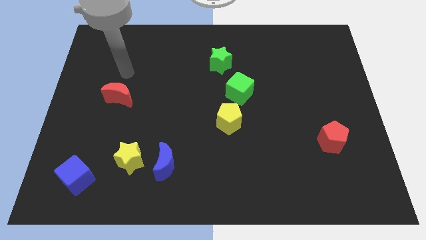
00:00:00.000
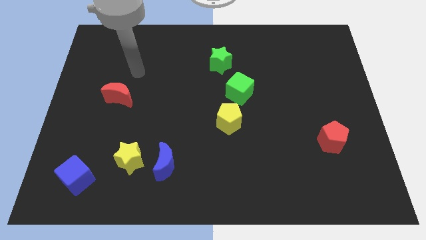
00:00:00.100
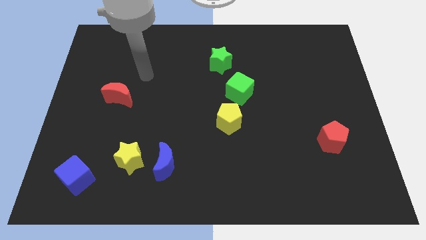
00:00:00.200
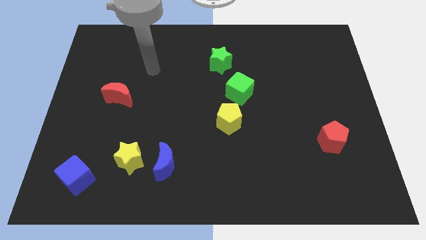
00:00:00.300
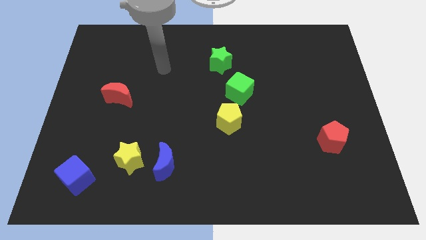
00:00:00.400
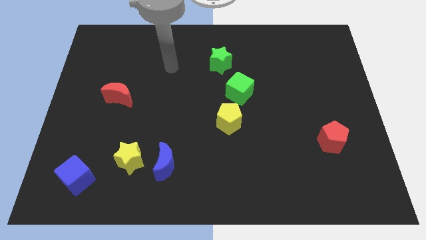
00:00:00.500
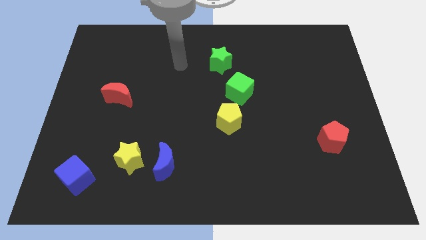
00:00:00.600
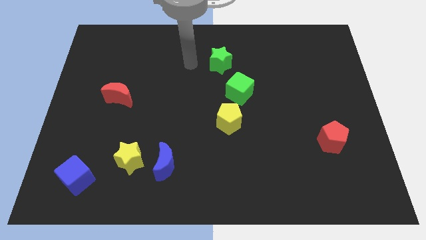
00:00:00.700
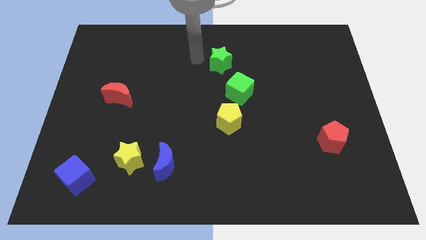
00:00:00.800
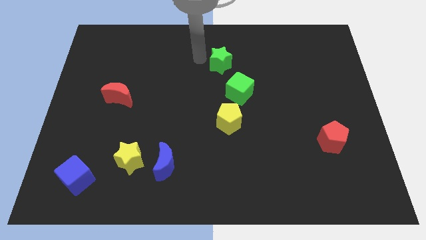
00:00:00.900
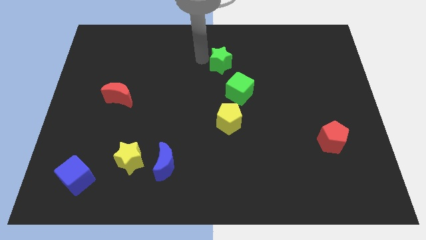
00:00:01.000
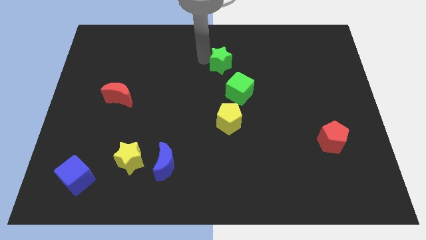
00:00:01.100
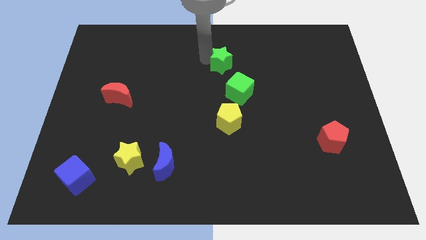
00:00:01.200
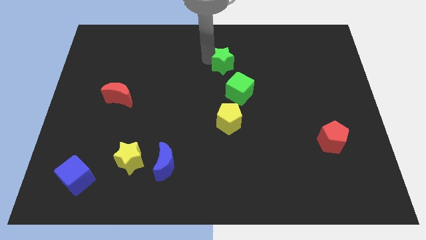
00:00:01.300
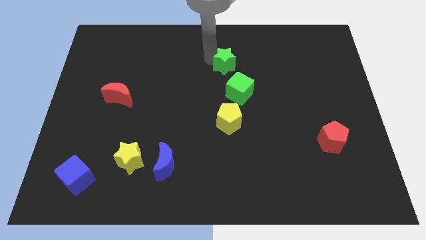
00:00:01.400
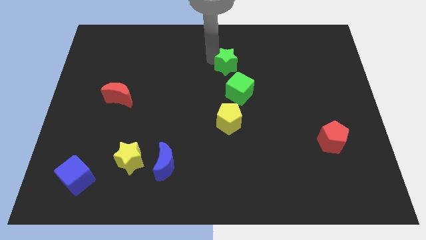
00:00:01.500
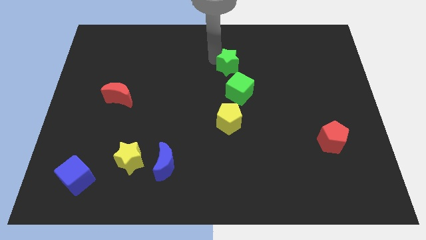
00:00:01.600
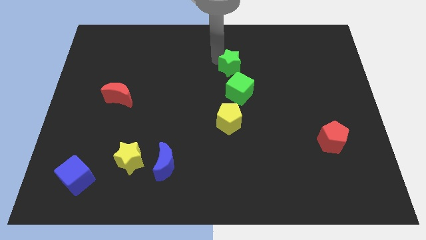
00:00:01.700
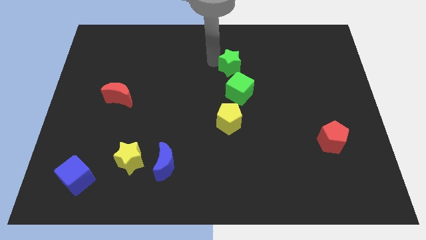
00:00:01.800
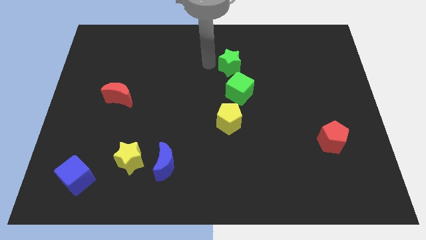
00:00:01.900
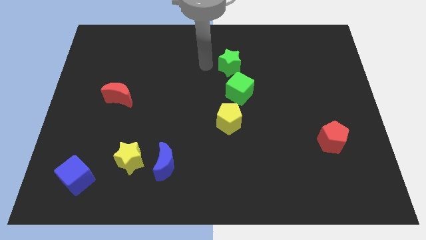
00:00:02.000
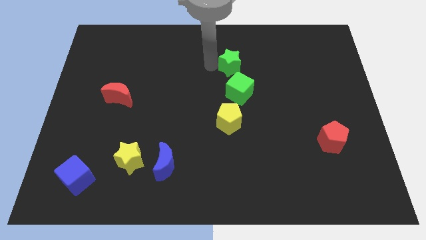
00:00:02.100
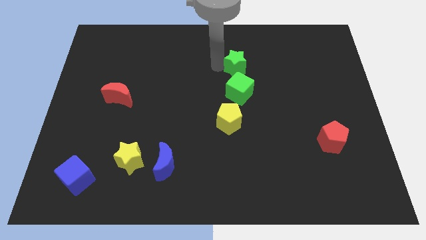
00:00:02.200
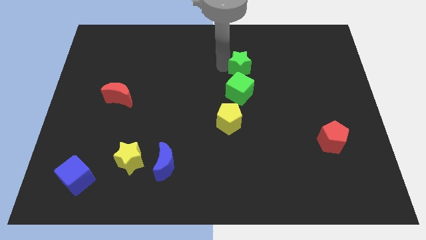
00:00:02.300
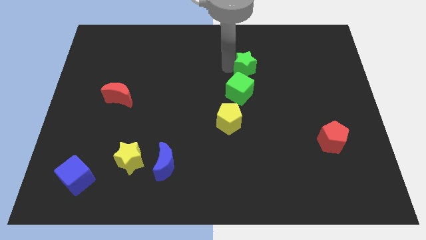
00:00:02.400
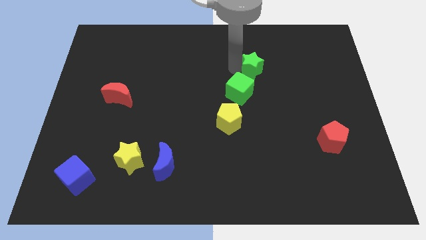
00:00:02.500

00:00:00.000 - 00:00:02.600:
slide the green star to the right somewhat

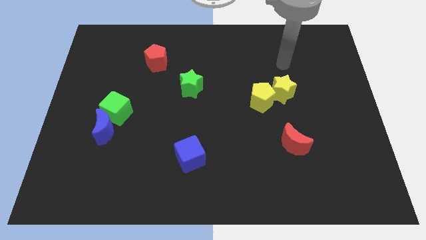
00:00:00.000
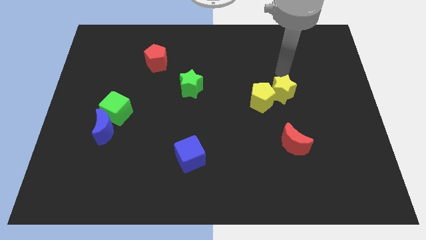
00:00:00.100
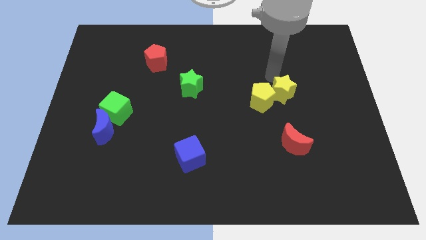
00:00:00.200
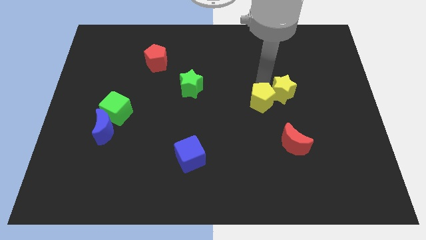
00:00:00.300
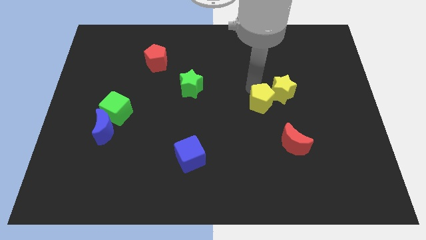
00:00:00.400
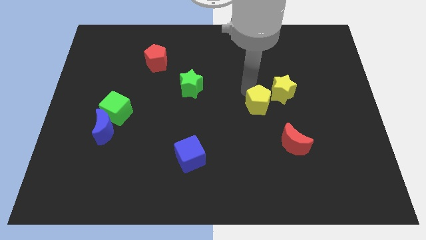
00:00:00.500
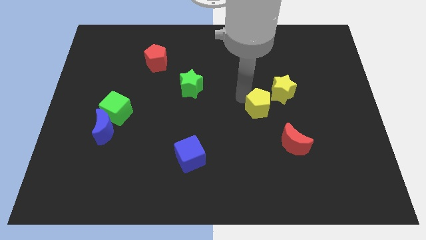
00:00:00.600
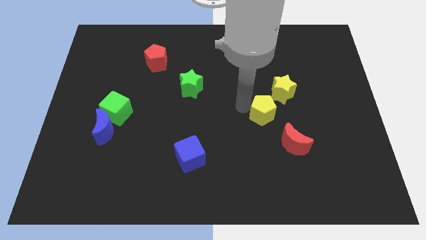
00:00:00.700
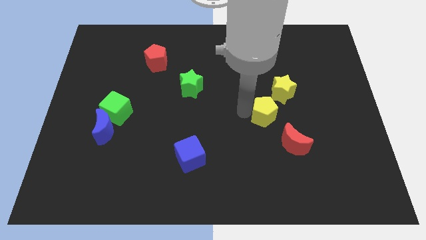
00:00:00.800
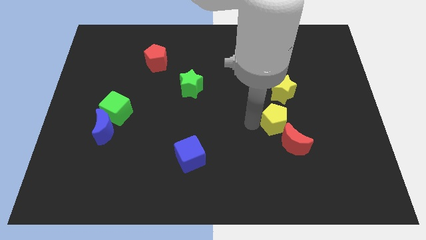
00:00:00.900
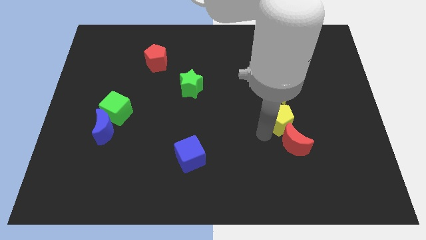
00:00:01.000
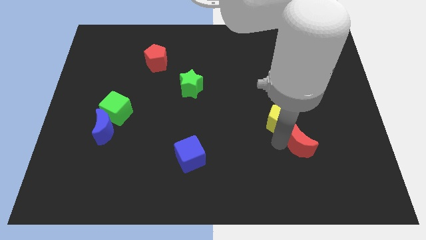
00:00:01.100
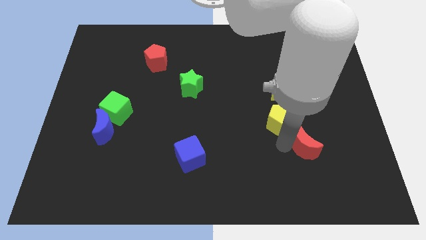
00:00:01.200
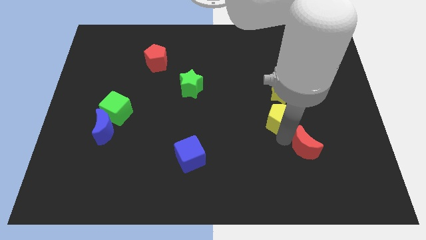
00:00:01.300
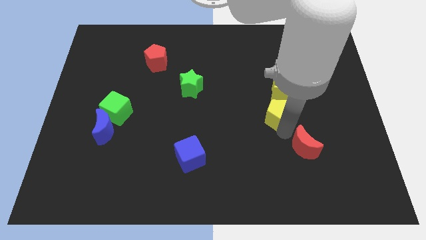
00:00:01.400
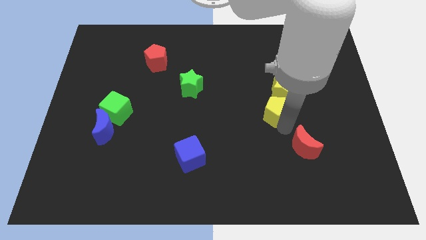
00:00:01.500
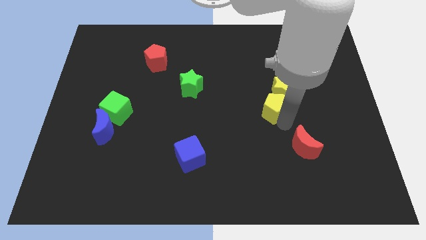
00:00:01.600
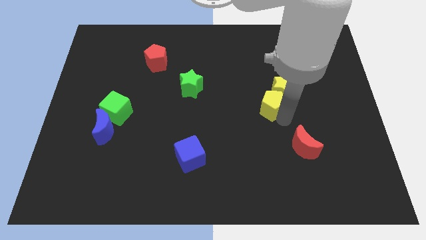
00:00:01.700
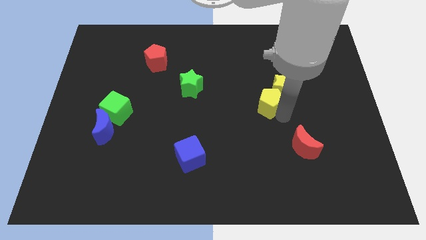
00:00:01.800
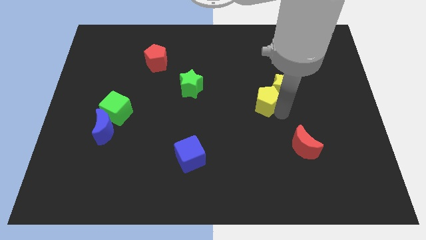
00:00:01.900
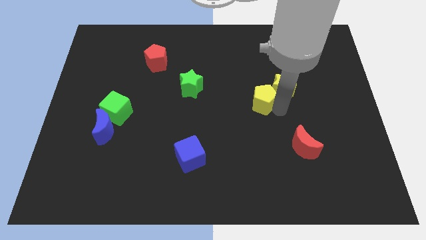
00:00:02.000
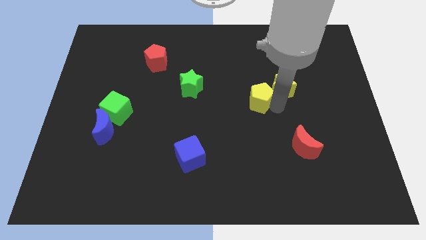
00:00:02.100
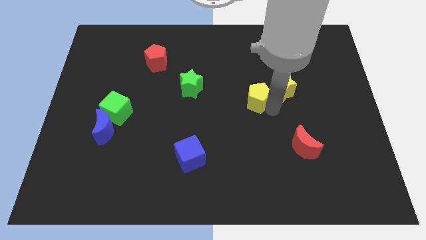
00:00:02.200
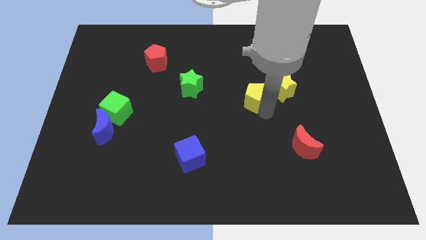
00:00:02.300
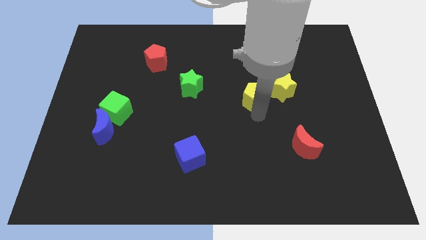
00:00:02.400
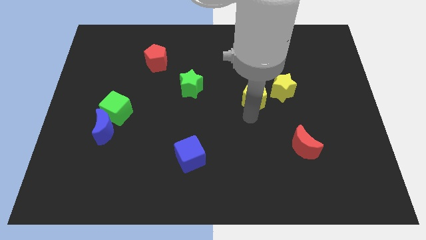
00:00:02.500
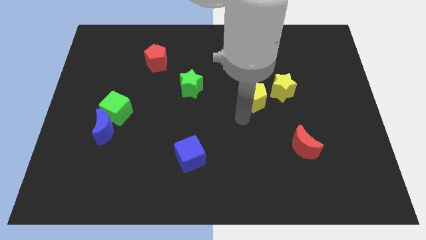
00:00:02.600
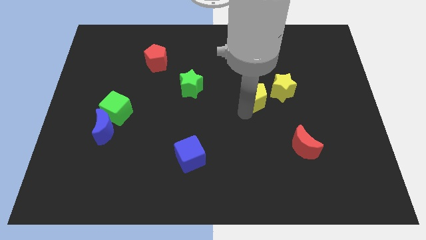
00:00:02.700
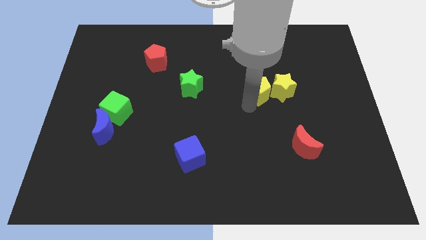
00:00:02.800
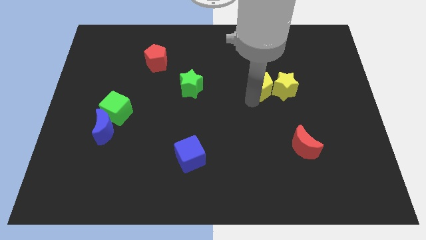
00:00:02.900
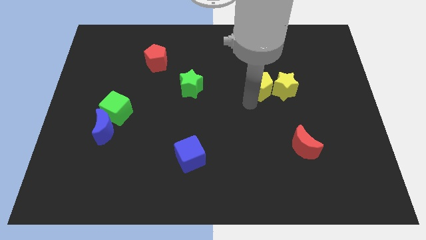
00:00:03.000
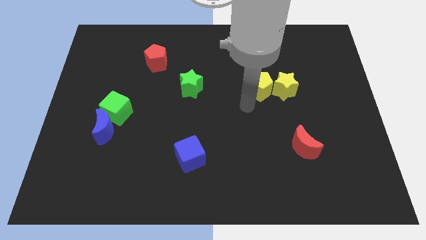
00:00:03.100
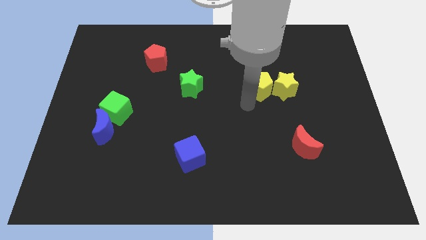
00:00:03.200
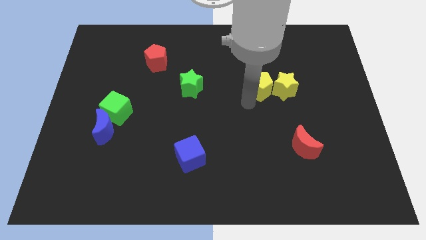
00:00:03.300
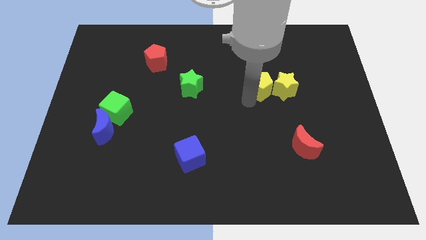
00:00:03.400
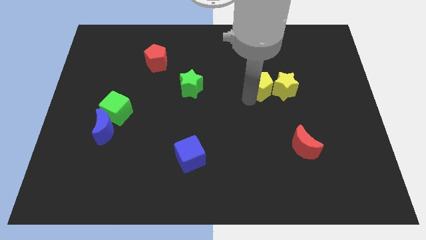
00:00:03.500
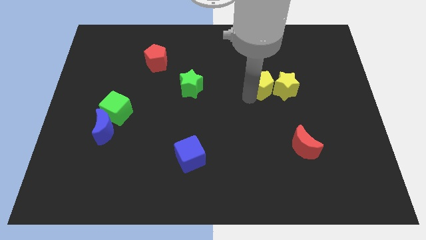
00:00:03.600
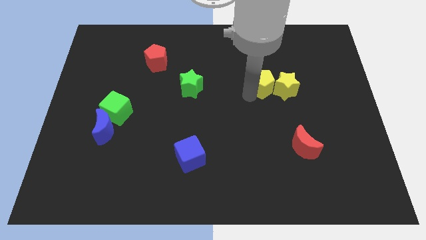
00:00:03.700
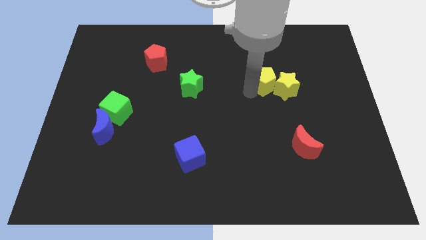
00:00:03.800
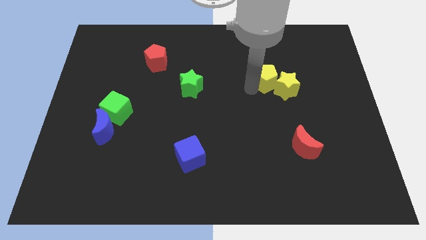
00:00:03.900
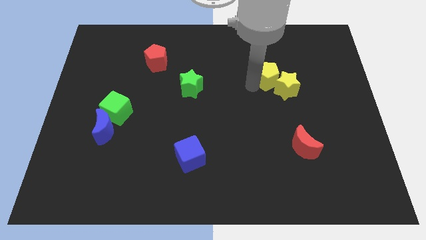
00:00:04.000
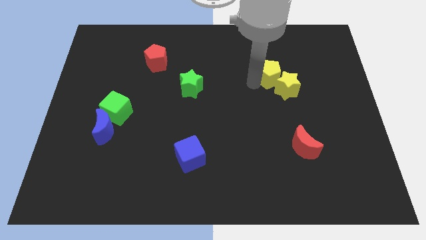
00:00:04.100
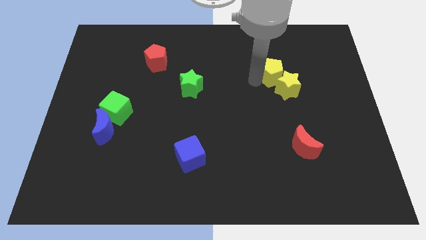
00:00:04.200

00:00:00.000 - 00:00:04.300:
move the yellow pentagon upwards and to the right slightly

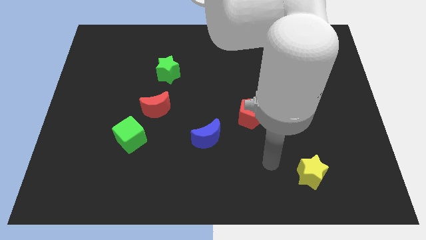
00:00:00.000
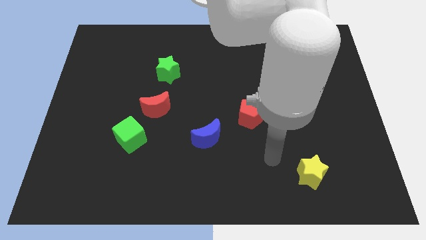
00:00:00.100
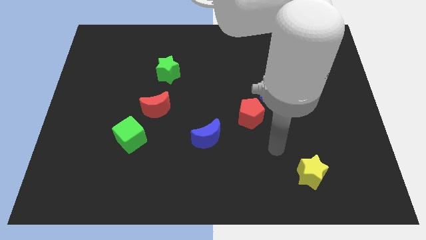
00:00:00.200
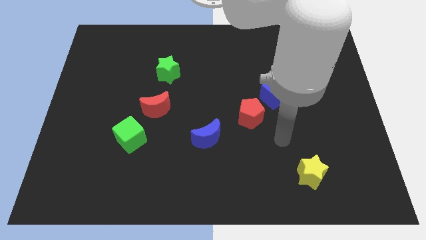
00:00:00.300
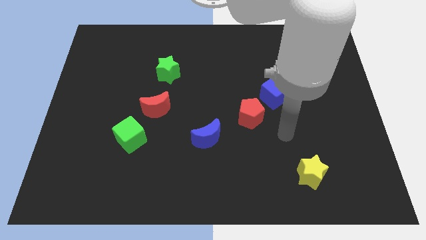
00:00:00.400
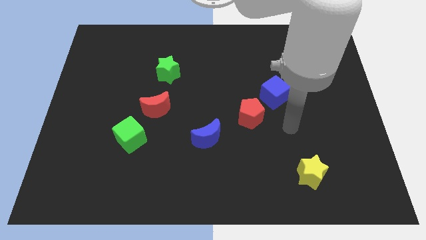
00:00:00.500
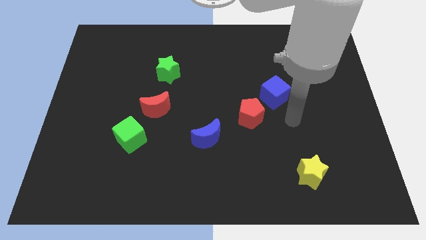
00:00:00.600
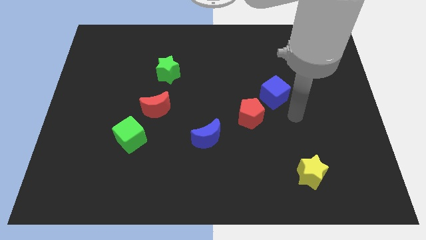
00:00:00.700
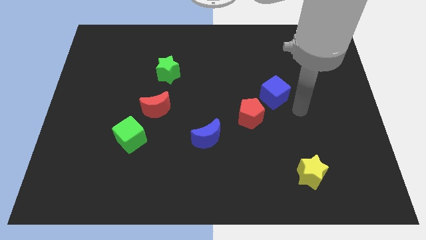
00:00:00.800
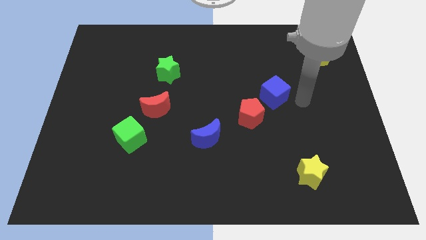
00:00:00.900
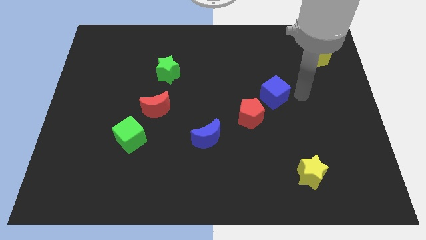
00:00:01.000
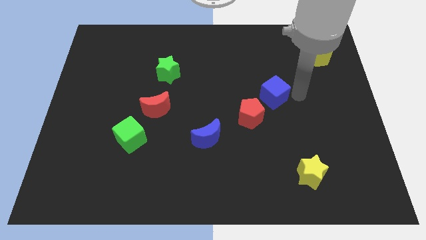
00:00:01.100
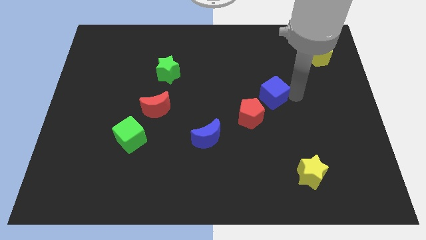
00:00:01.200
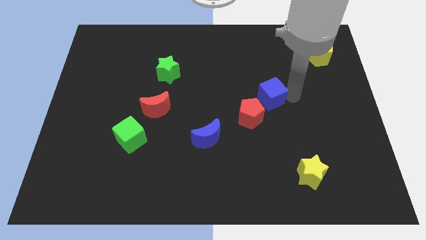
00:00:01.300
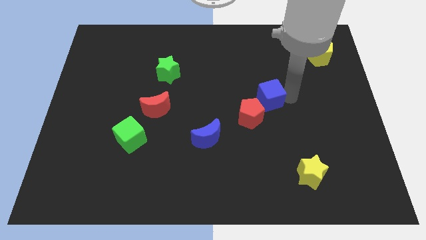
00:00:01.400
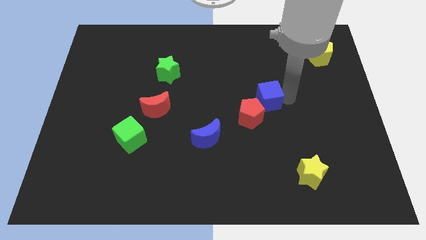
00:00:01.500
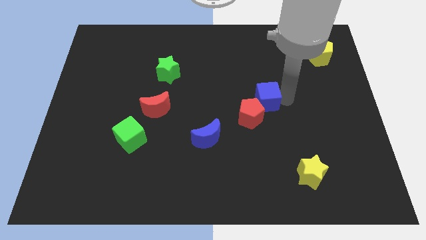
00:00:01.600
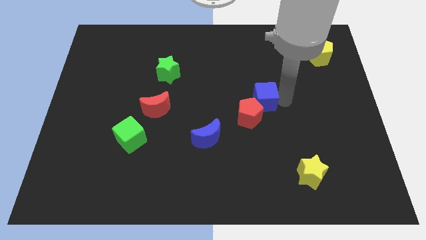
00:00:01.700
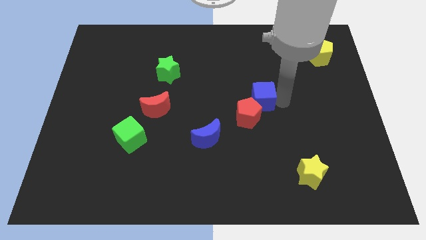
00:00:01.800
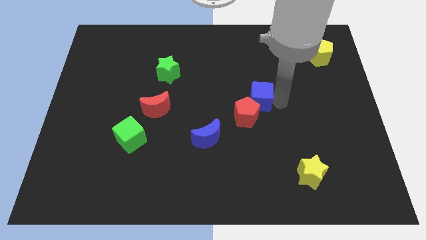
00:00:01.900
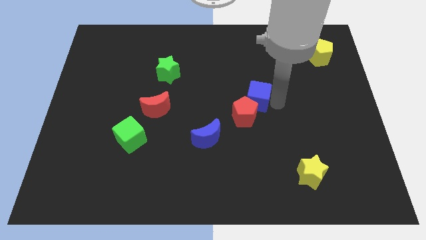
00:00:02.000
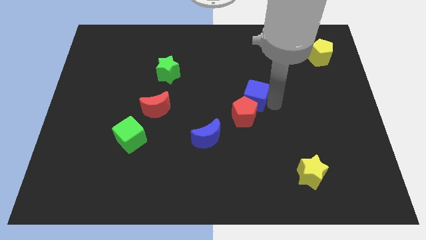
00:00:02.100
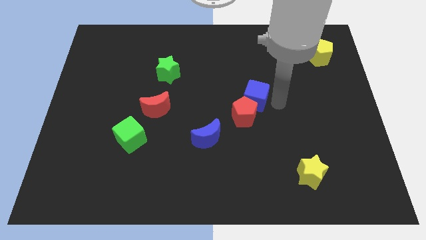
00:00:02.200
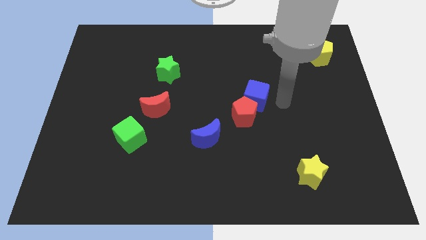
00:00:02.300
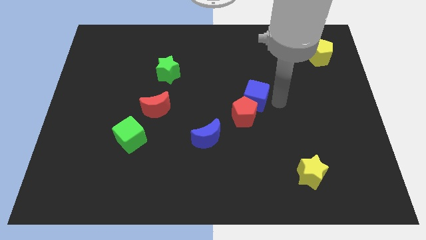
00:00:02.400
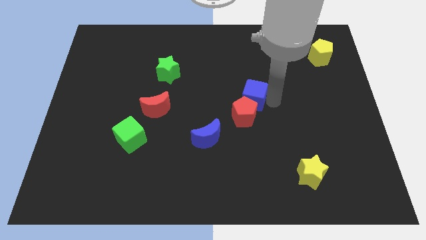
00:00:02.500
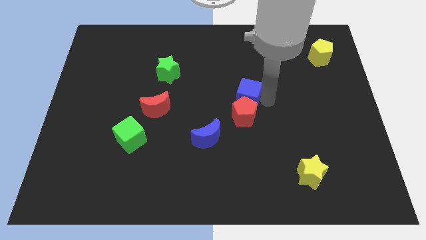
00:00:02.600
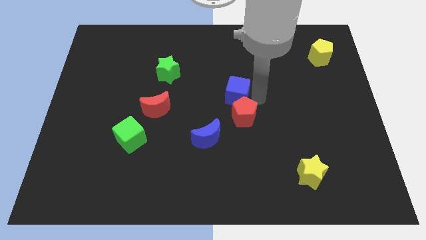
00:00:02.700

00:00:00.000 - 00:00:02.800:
push the blue cube somewhat left
